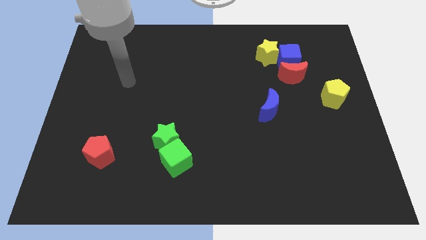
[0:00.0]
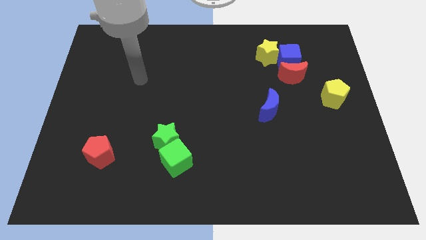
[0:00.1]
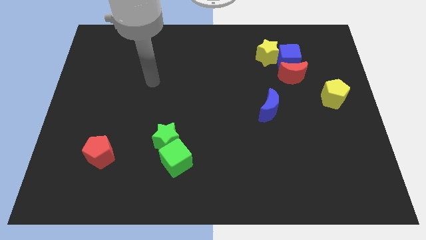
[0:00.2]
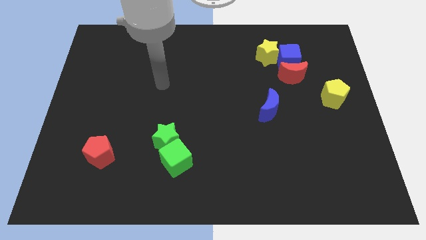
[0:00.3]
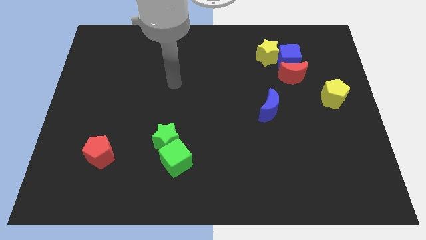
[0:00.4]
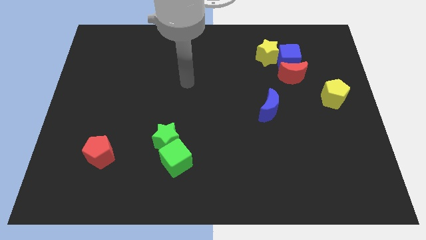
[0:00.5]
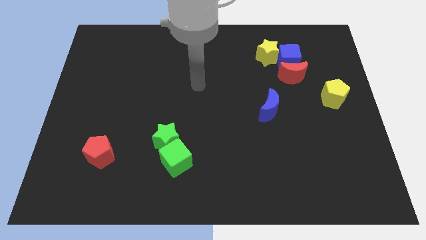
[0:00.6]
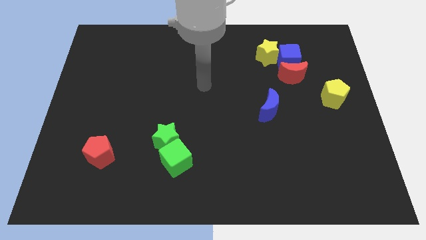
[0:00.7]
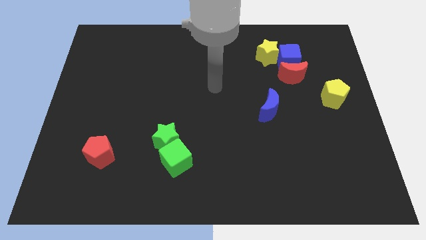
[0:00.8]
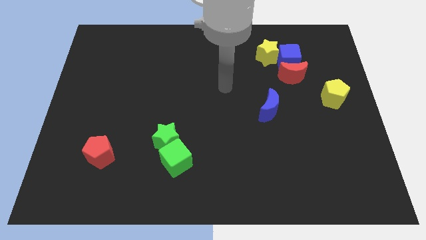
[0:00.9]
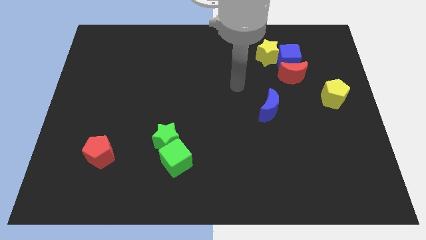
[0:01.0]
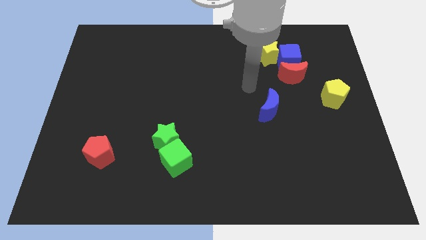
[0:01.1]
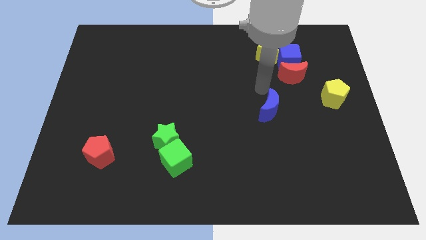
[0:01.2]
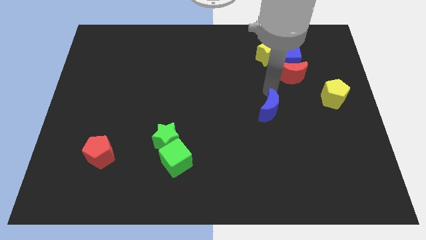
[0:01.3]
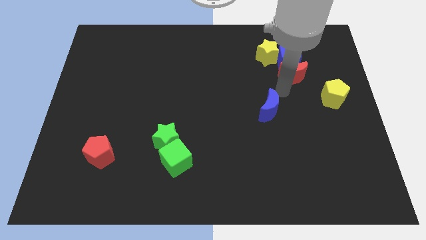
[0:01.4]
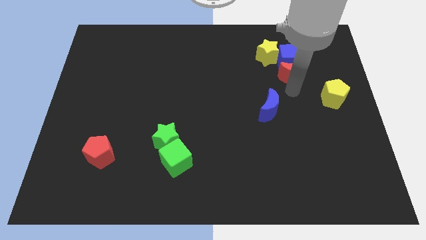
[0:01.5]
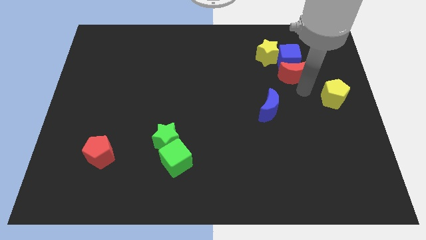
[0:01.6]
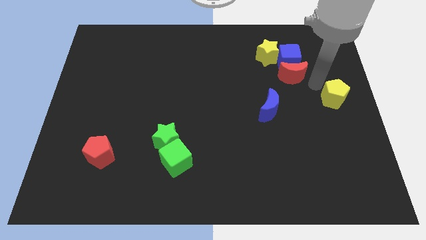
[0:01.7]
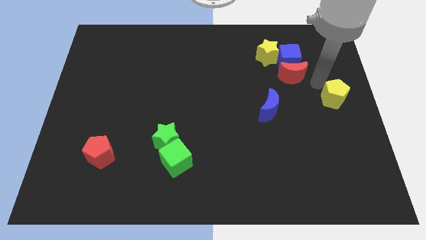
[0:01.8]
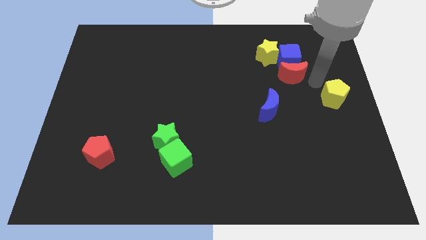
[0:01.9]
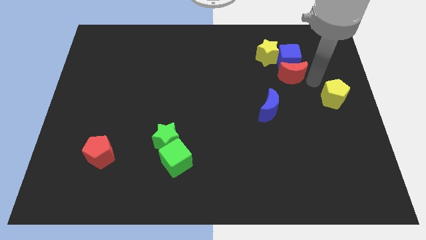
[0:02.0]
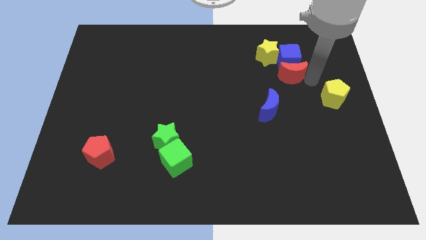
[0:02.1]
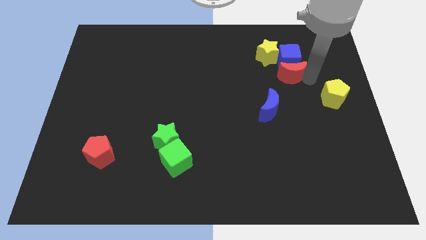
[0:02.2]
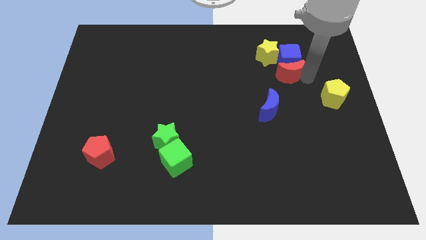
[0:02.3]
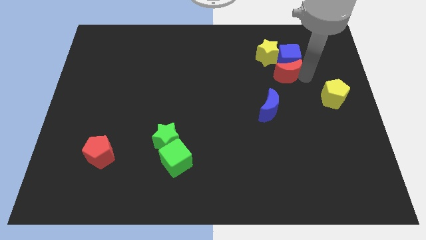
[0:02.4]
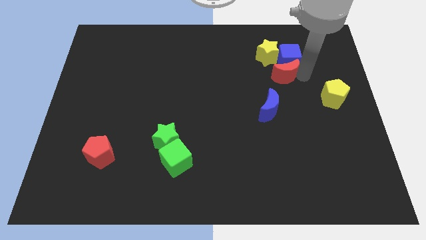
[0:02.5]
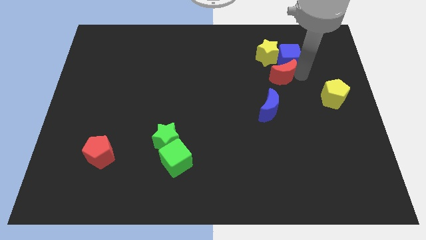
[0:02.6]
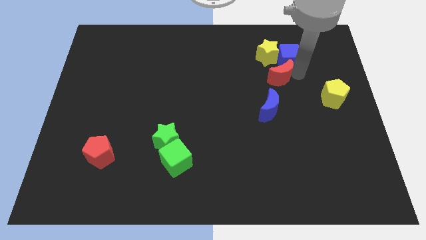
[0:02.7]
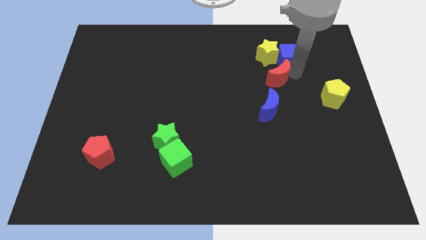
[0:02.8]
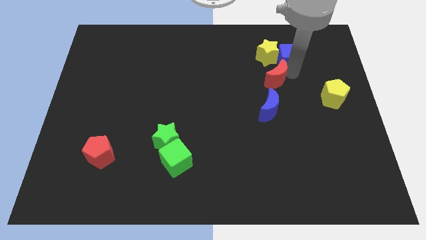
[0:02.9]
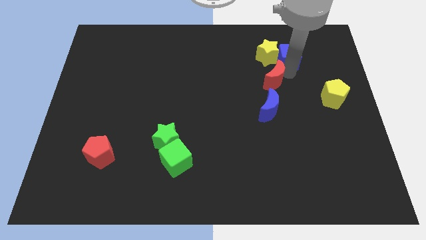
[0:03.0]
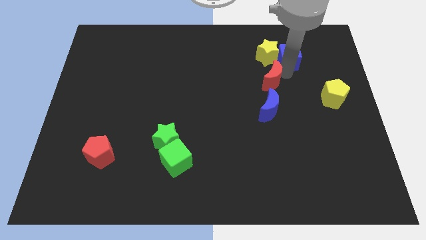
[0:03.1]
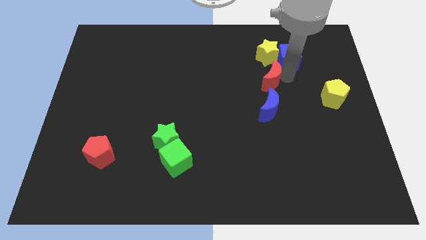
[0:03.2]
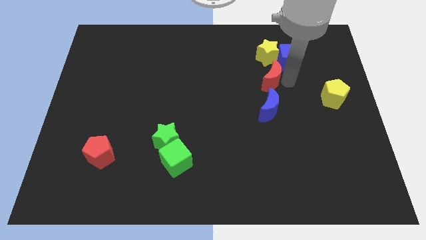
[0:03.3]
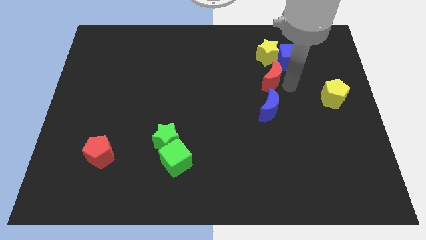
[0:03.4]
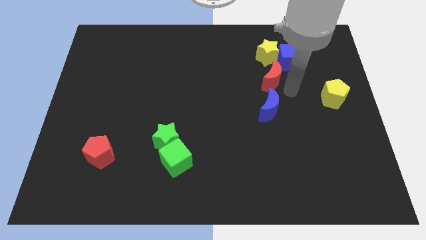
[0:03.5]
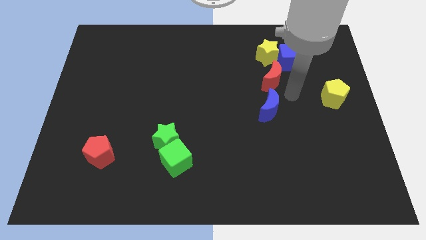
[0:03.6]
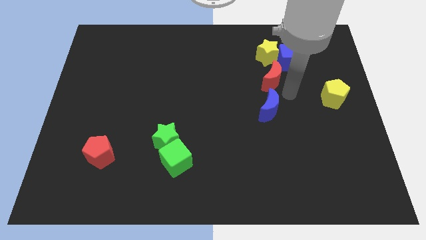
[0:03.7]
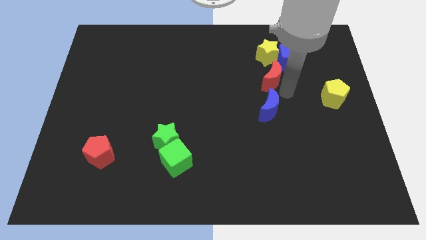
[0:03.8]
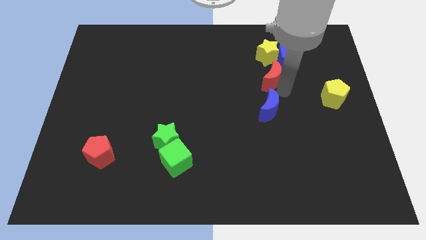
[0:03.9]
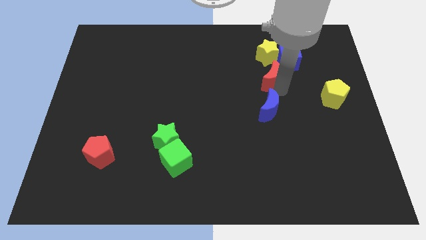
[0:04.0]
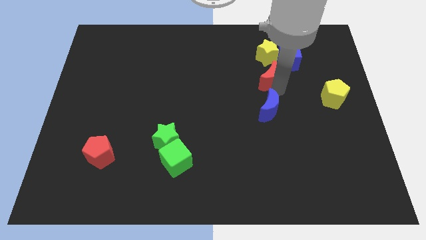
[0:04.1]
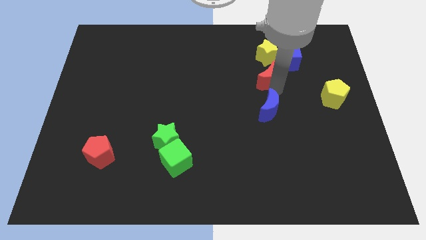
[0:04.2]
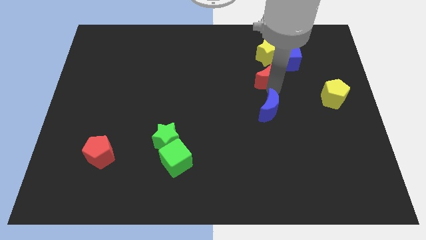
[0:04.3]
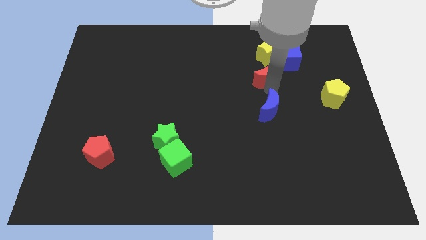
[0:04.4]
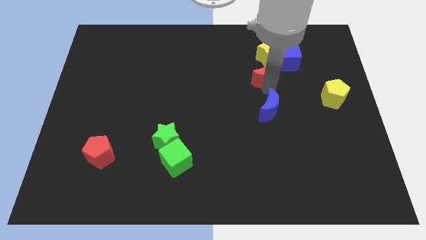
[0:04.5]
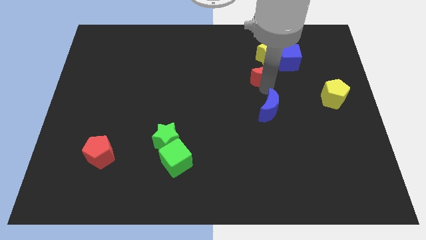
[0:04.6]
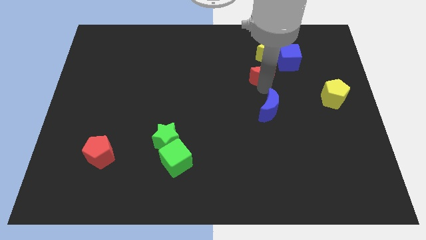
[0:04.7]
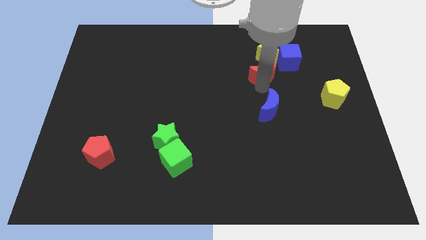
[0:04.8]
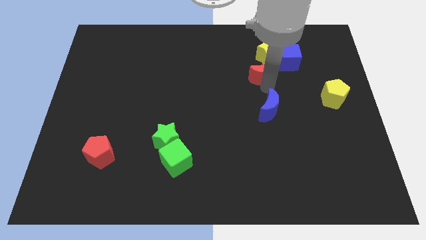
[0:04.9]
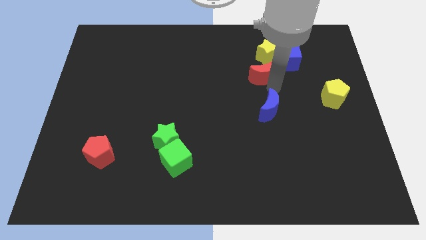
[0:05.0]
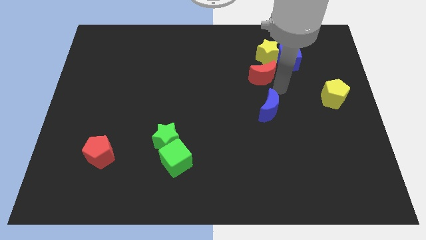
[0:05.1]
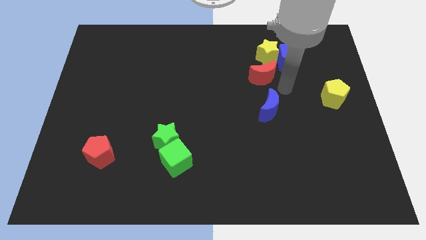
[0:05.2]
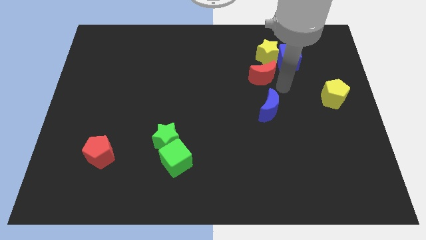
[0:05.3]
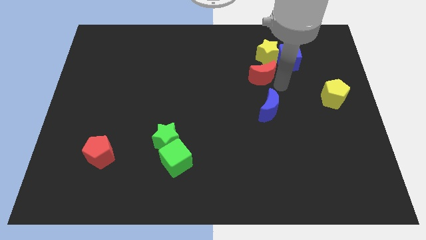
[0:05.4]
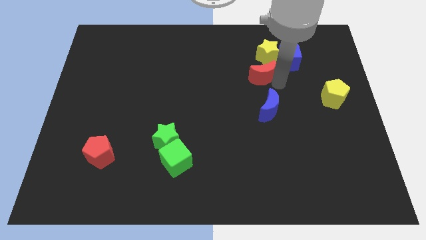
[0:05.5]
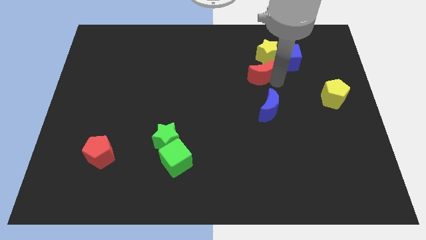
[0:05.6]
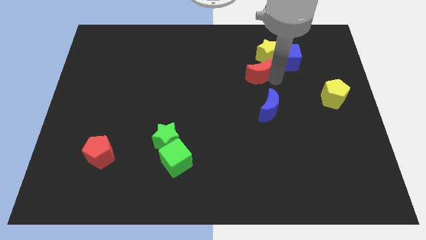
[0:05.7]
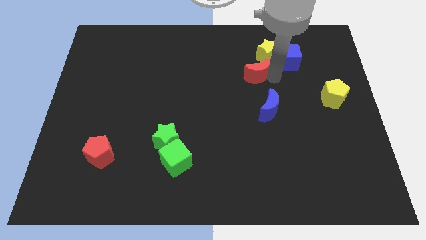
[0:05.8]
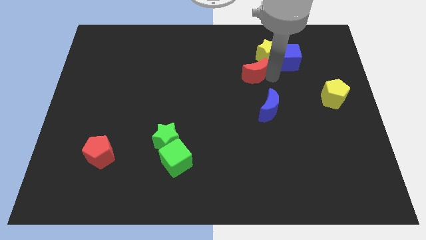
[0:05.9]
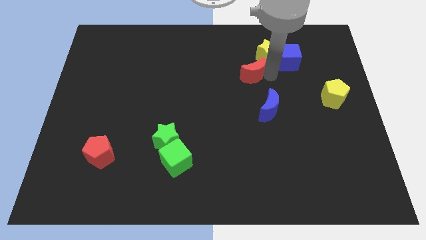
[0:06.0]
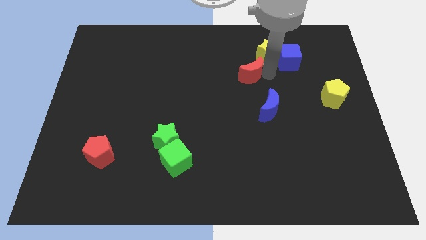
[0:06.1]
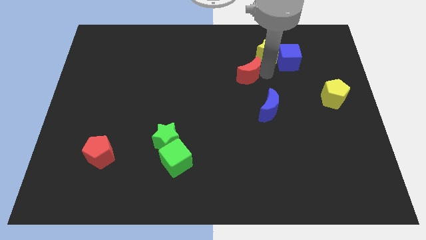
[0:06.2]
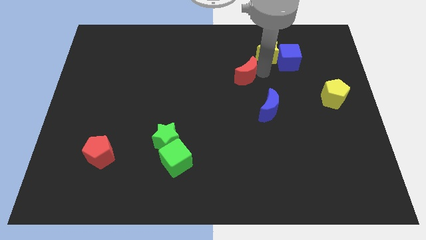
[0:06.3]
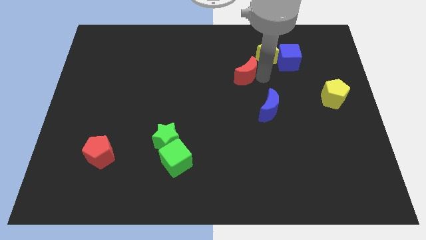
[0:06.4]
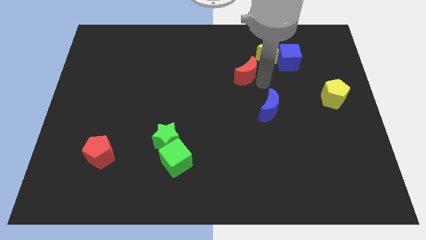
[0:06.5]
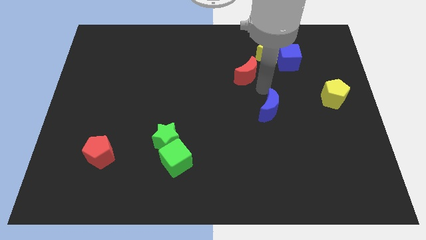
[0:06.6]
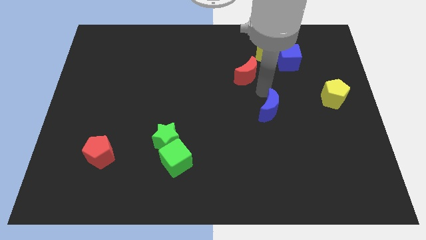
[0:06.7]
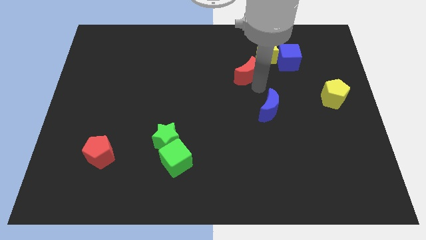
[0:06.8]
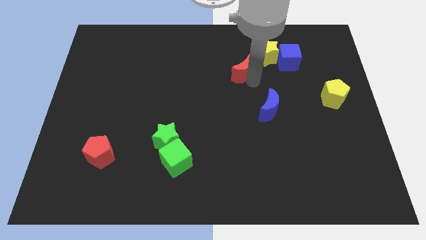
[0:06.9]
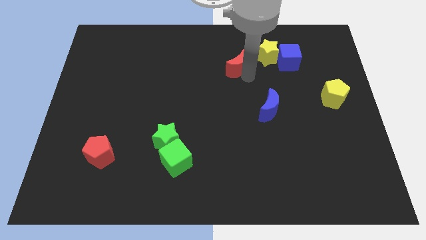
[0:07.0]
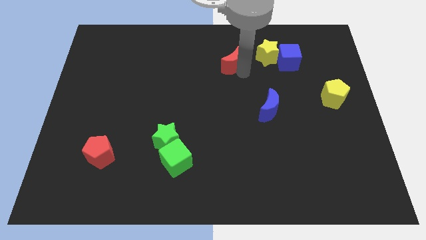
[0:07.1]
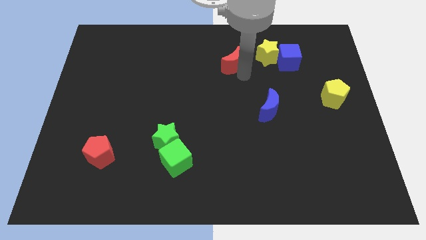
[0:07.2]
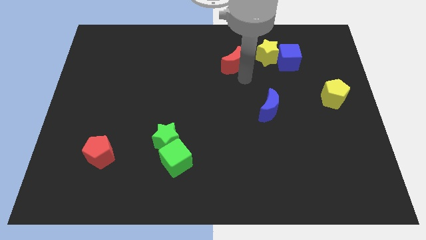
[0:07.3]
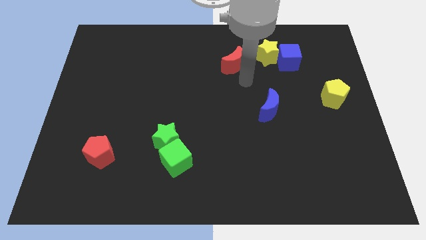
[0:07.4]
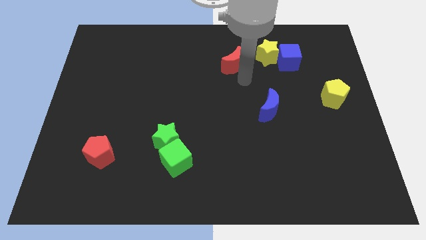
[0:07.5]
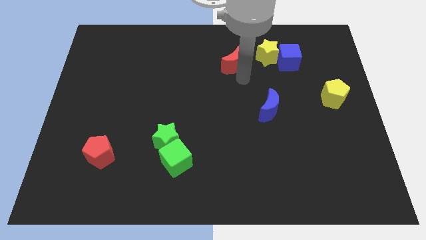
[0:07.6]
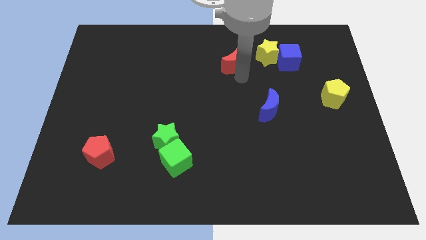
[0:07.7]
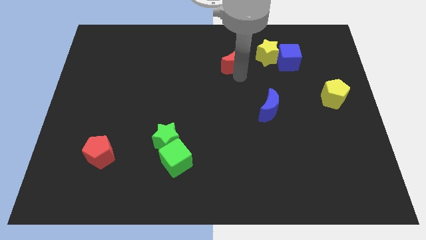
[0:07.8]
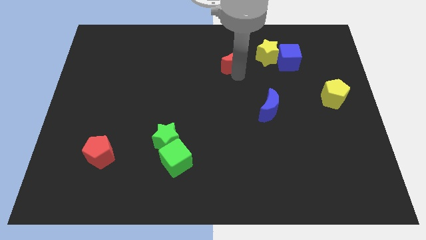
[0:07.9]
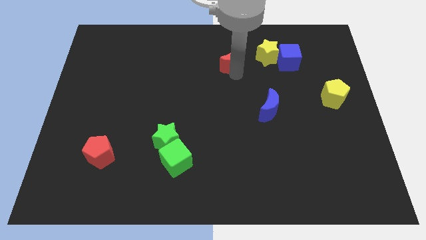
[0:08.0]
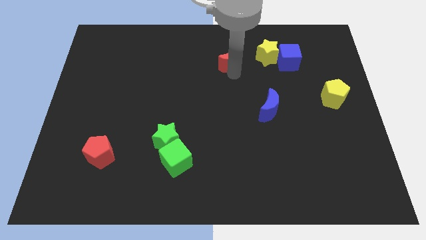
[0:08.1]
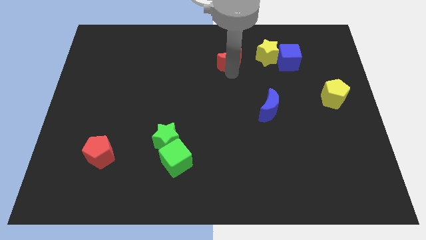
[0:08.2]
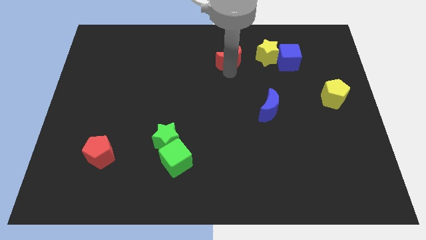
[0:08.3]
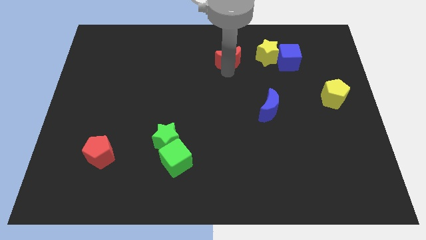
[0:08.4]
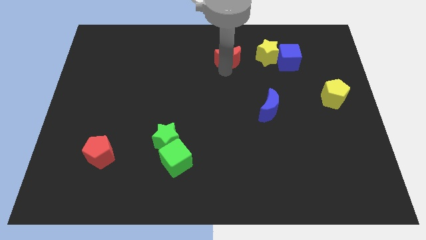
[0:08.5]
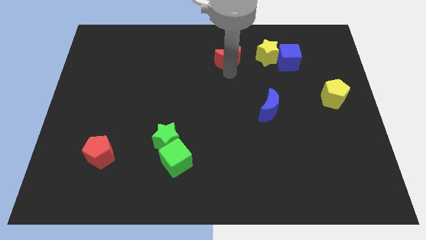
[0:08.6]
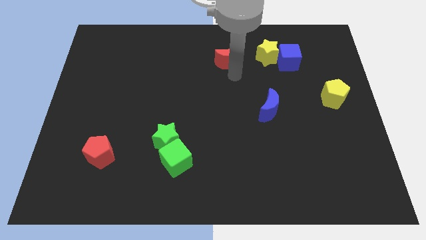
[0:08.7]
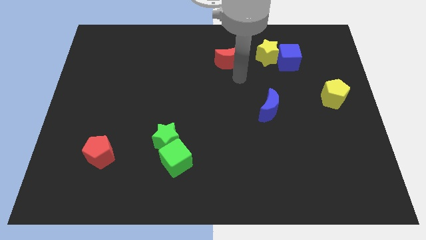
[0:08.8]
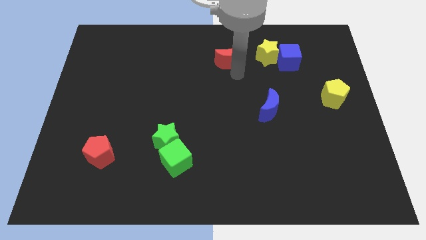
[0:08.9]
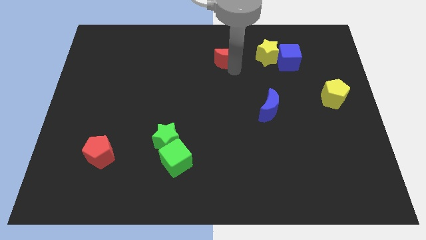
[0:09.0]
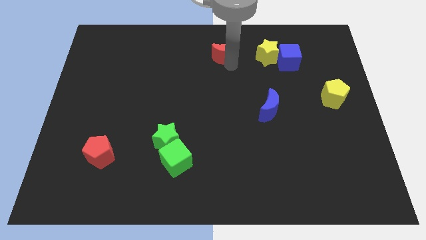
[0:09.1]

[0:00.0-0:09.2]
slide the red moon to the towards your base
